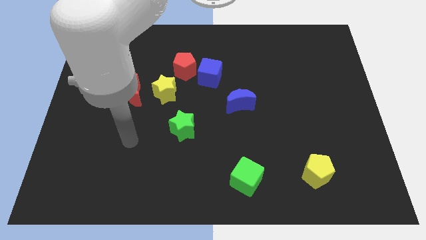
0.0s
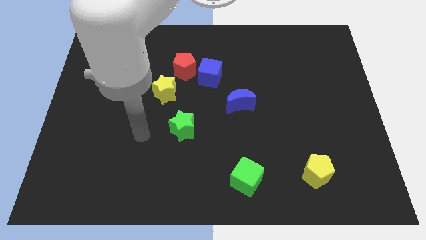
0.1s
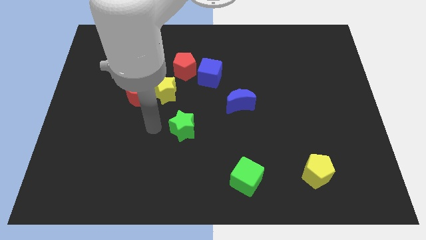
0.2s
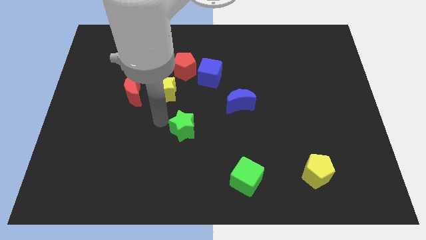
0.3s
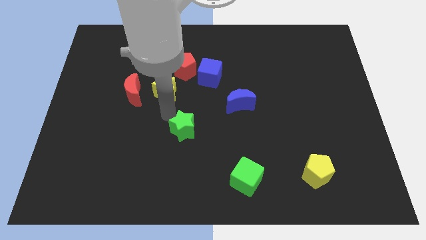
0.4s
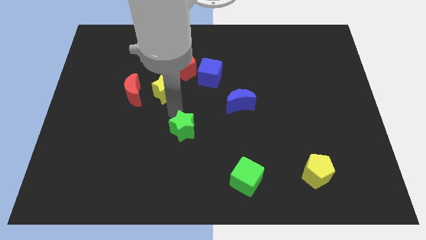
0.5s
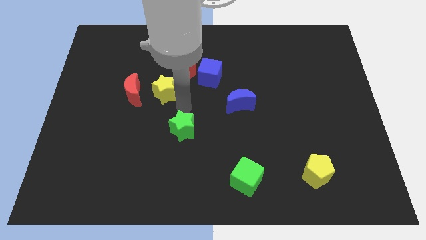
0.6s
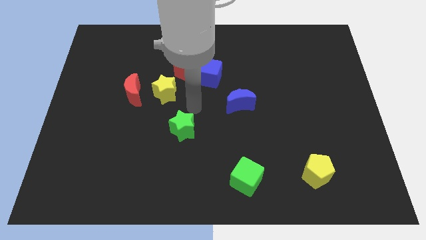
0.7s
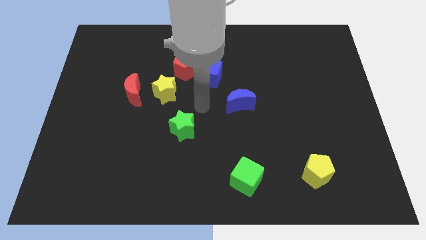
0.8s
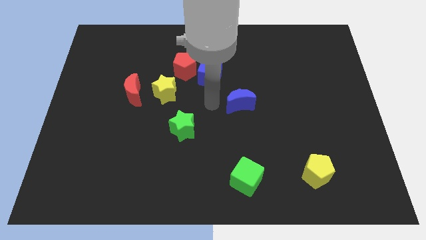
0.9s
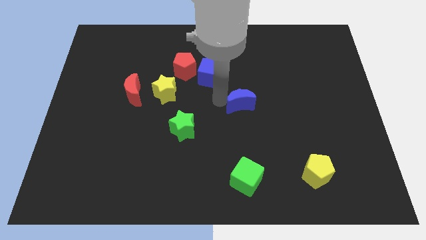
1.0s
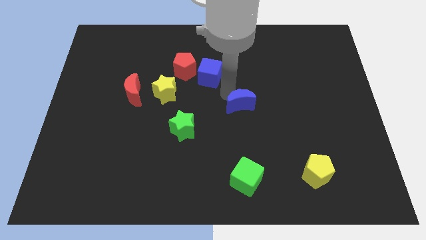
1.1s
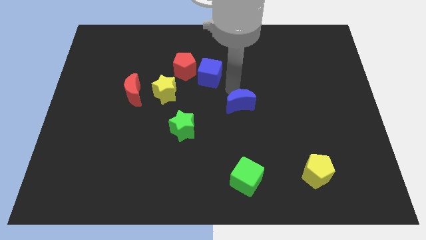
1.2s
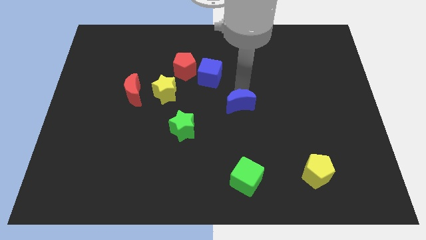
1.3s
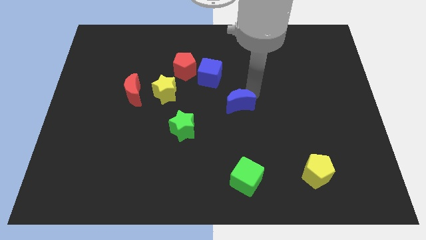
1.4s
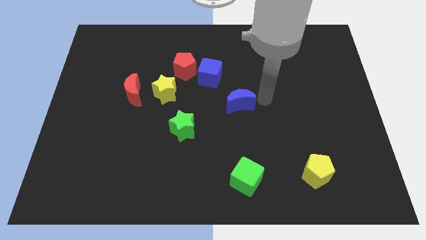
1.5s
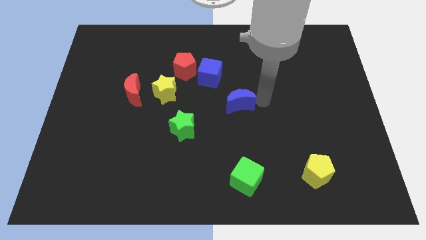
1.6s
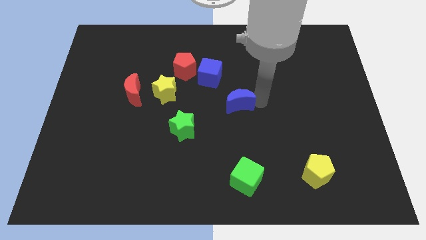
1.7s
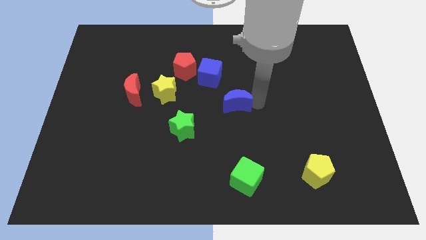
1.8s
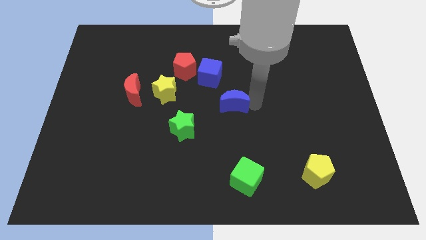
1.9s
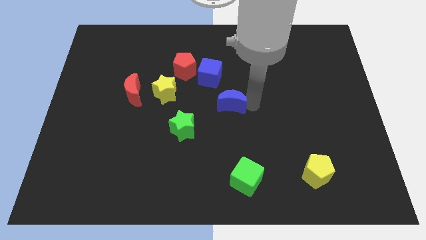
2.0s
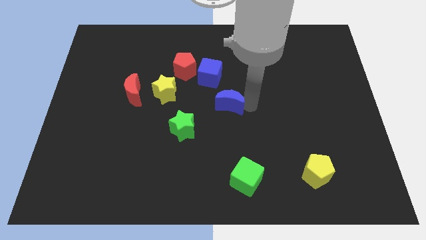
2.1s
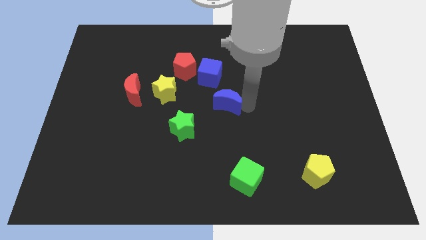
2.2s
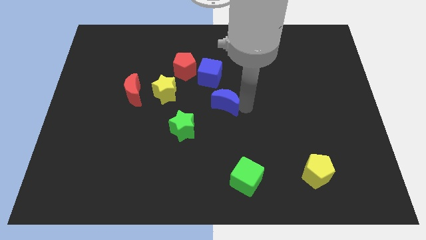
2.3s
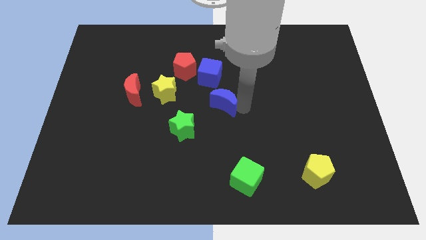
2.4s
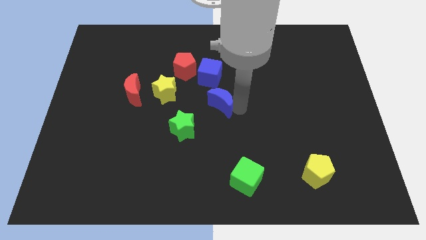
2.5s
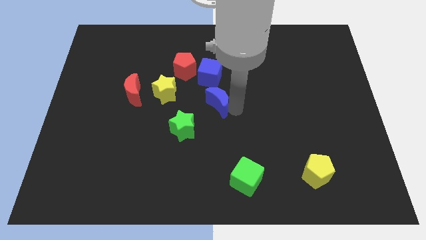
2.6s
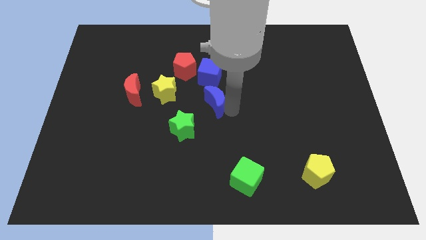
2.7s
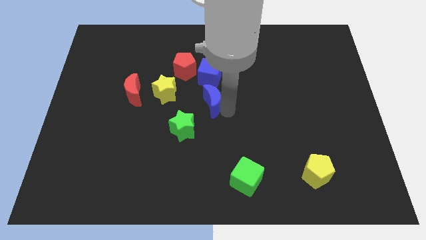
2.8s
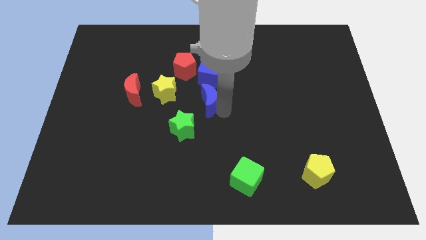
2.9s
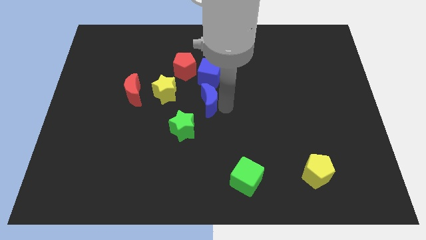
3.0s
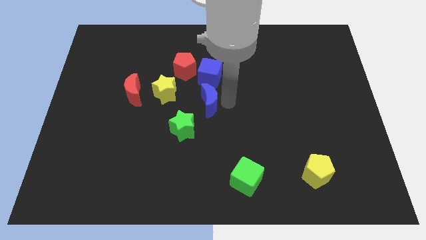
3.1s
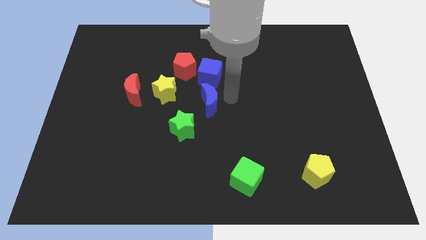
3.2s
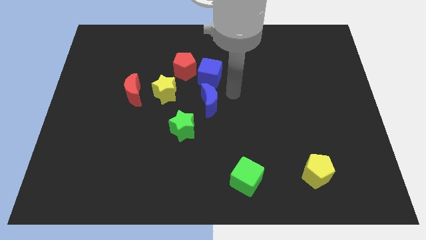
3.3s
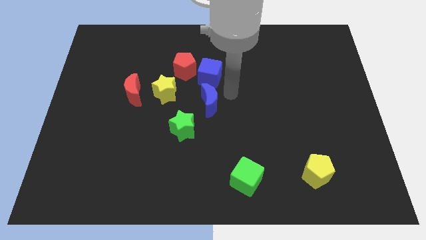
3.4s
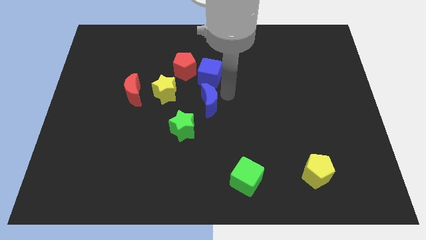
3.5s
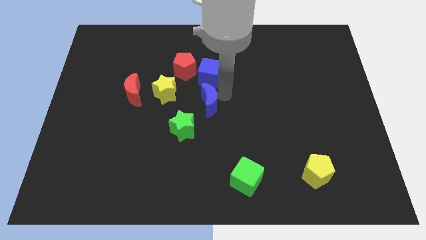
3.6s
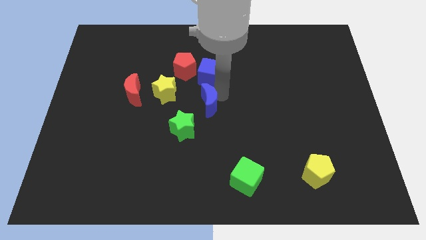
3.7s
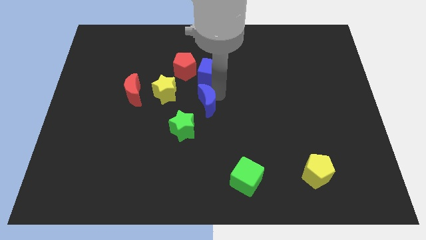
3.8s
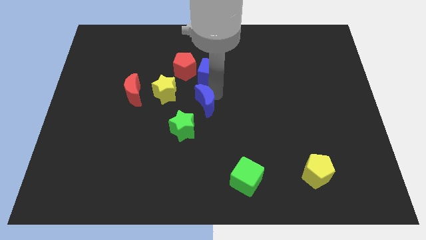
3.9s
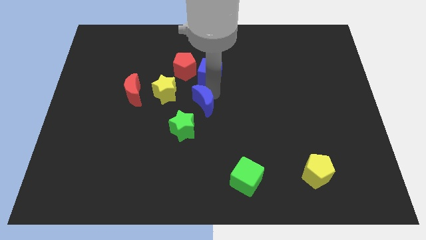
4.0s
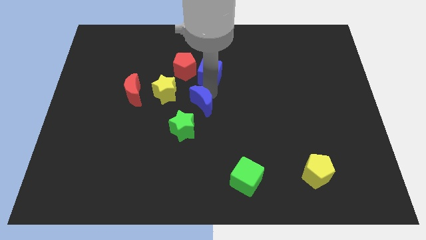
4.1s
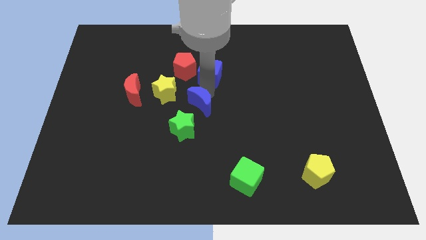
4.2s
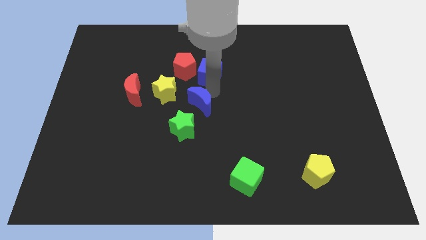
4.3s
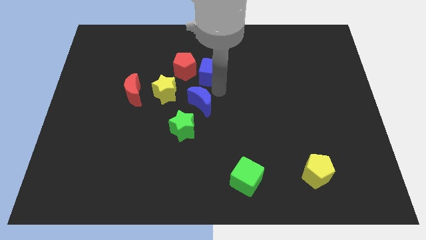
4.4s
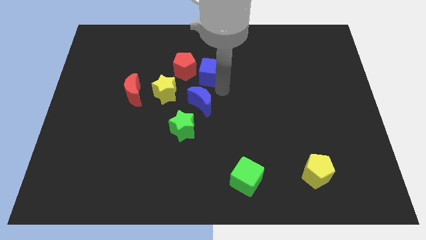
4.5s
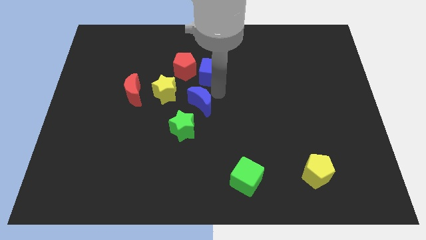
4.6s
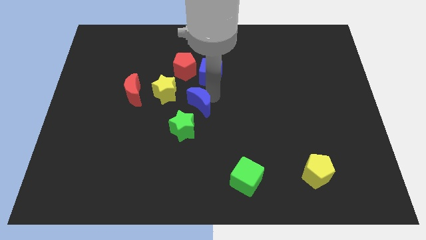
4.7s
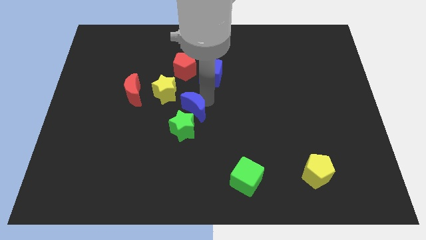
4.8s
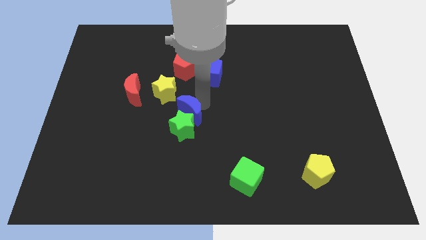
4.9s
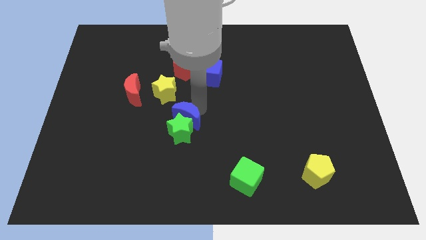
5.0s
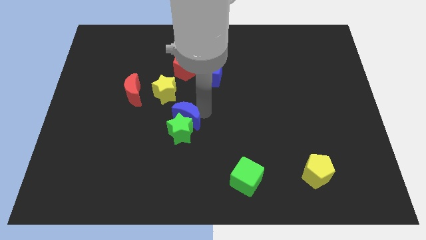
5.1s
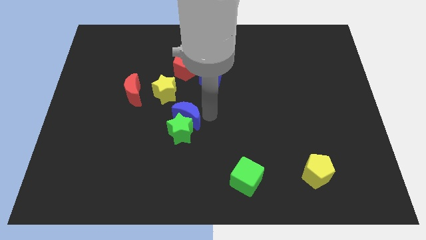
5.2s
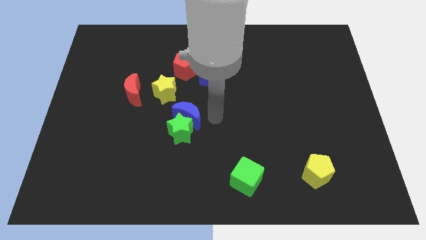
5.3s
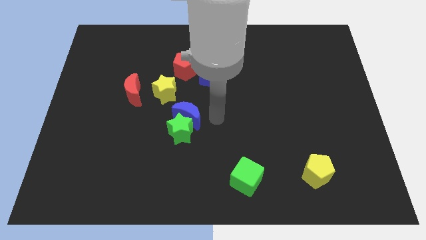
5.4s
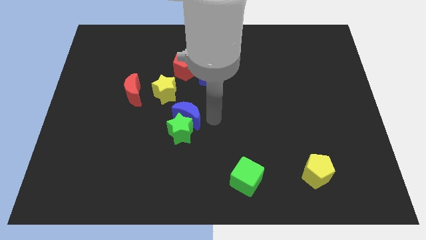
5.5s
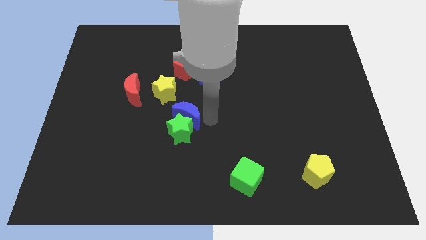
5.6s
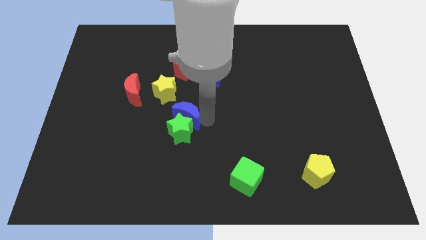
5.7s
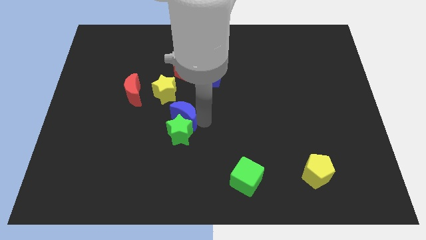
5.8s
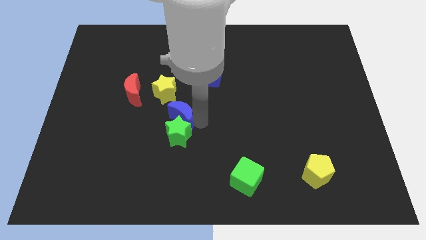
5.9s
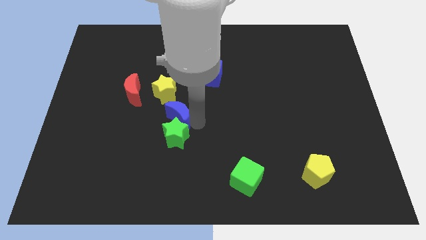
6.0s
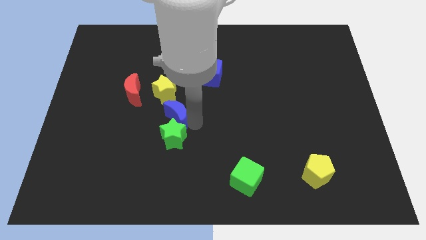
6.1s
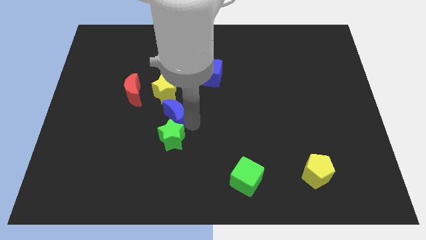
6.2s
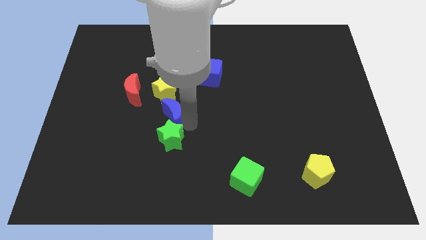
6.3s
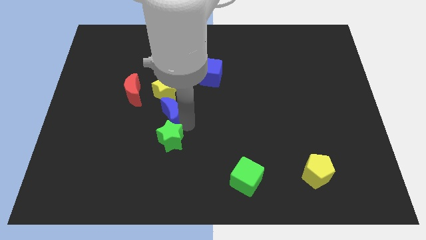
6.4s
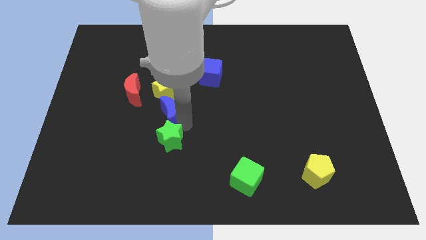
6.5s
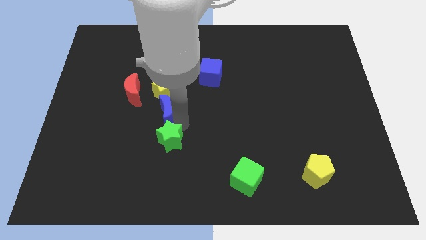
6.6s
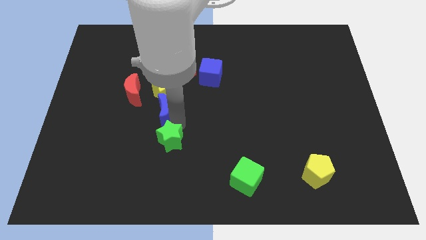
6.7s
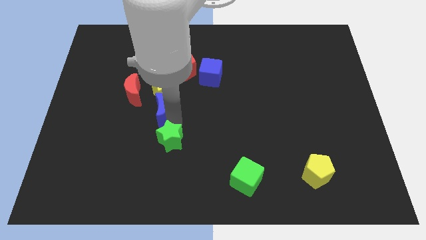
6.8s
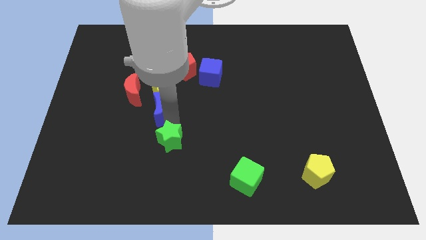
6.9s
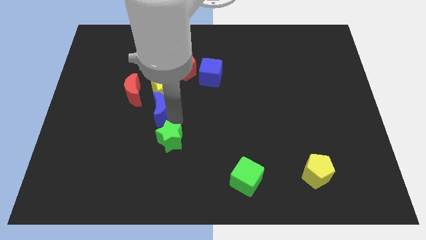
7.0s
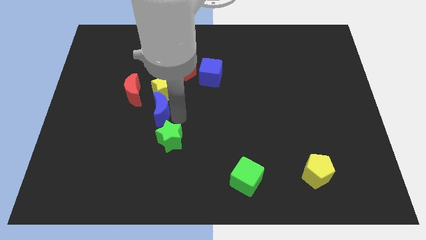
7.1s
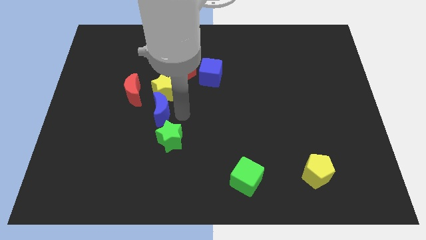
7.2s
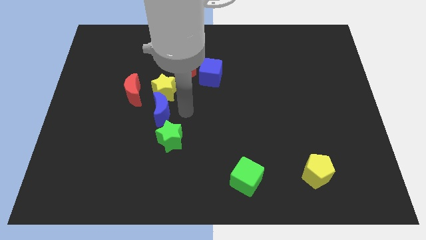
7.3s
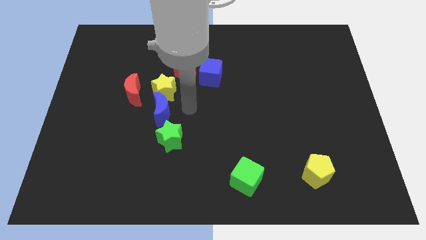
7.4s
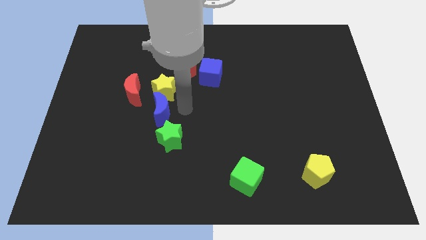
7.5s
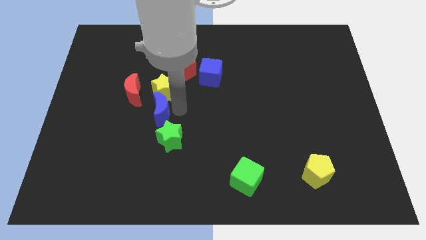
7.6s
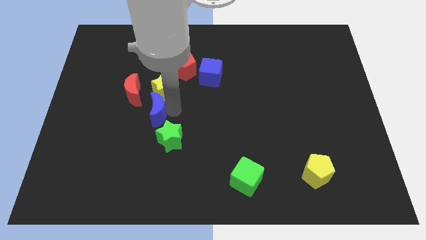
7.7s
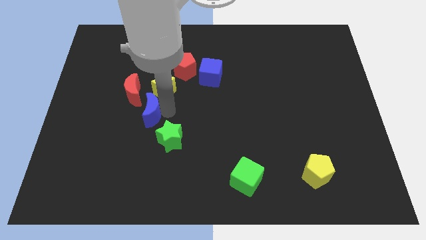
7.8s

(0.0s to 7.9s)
push the blue moon to the left
